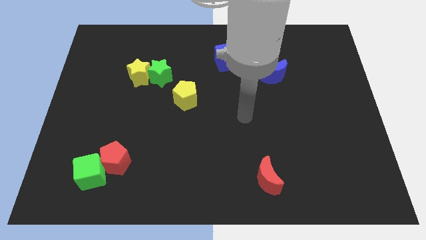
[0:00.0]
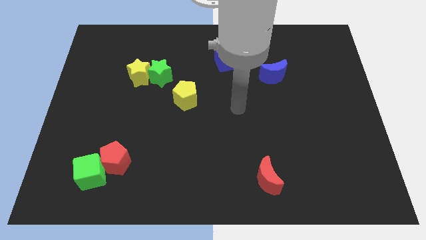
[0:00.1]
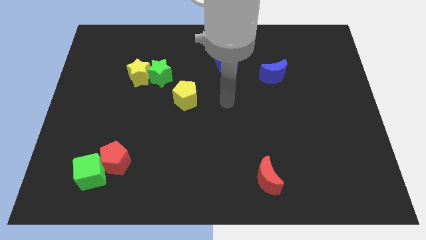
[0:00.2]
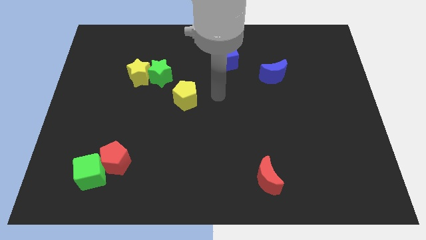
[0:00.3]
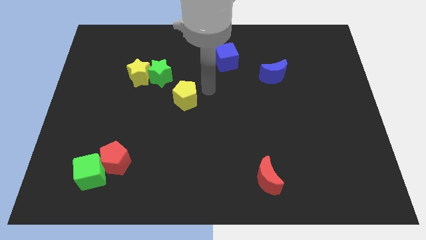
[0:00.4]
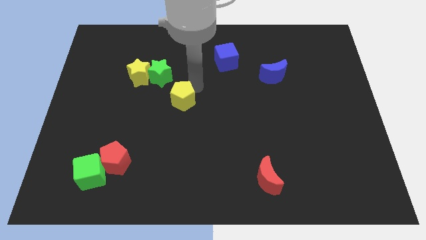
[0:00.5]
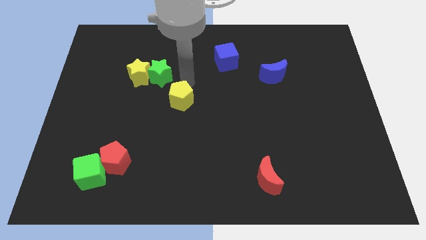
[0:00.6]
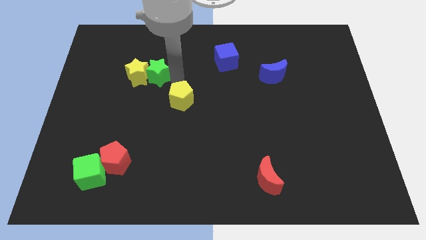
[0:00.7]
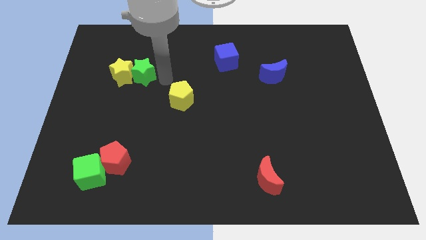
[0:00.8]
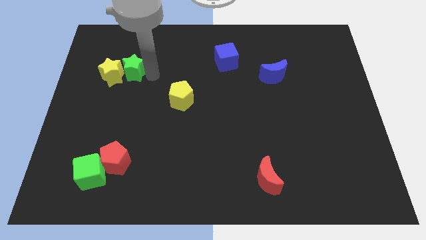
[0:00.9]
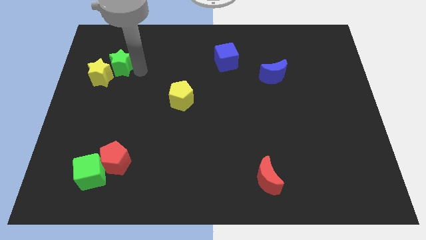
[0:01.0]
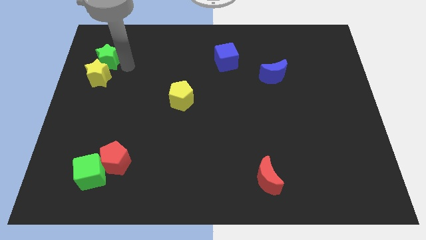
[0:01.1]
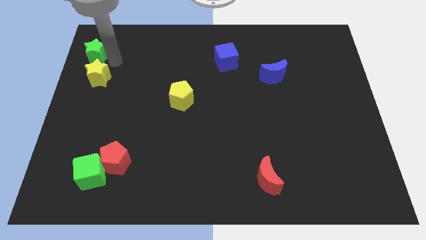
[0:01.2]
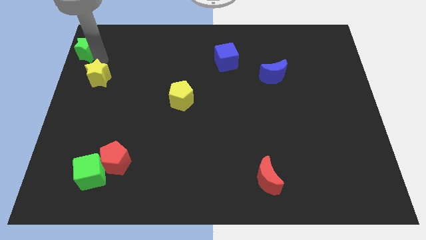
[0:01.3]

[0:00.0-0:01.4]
pull the yellow star apart from the green star

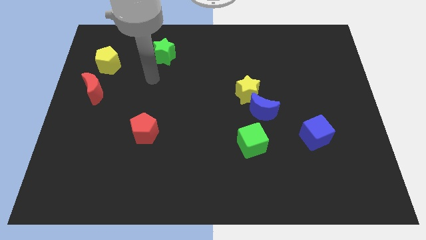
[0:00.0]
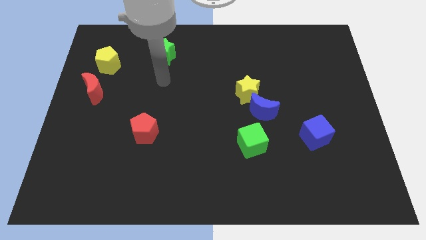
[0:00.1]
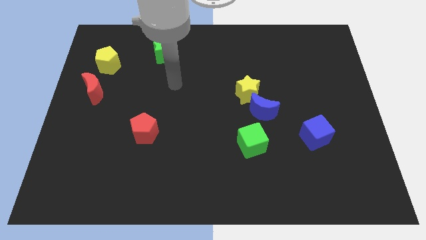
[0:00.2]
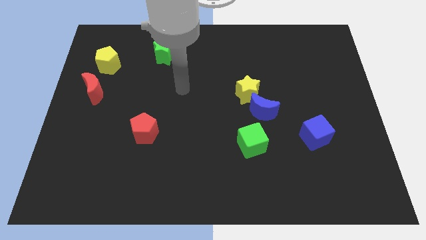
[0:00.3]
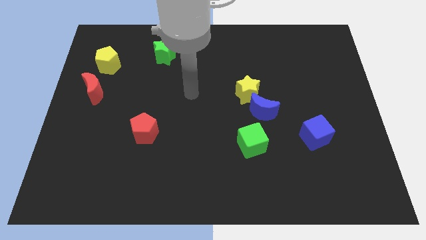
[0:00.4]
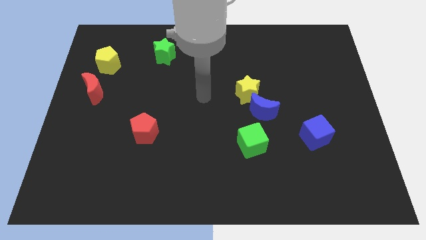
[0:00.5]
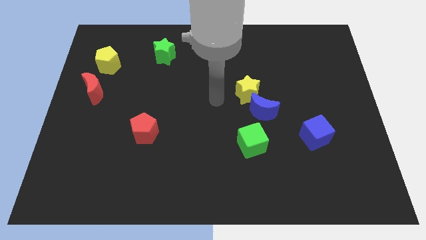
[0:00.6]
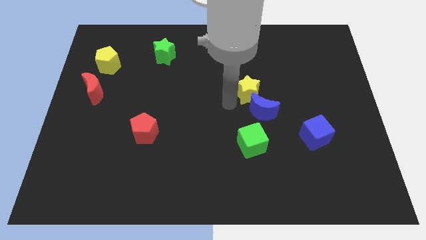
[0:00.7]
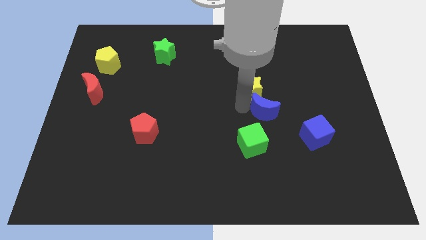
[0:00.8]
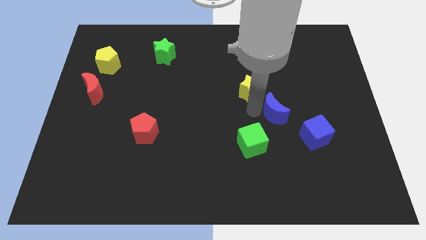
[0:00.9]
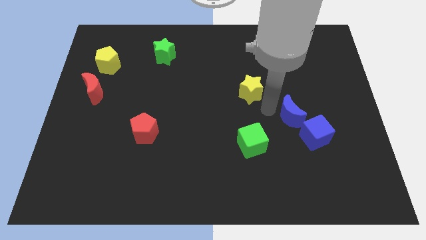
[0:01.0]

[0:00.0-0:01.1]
separate the yellow star from the blue moon

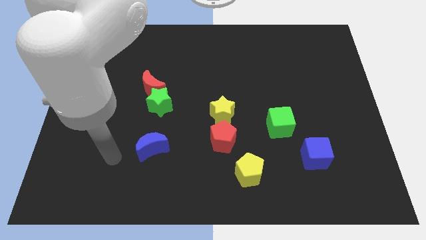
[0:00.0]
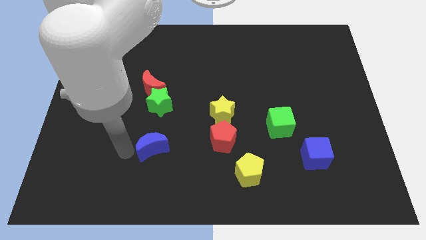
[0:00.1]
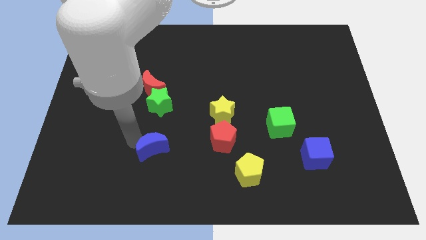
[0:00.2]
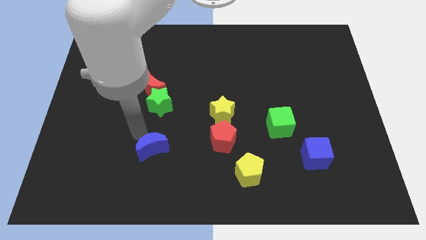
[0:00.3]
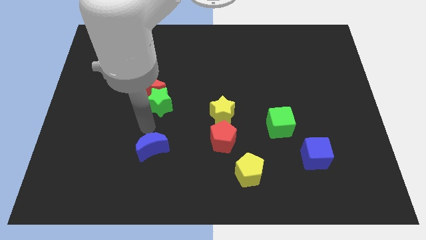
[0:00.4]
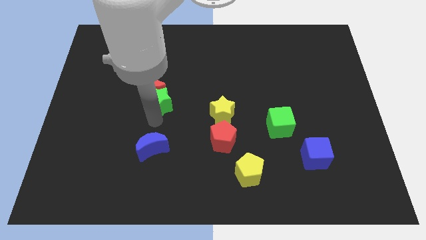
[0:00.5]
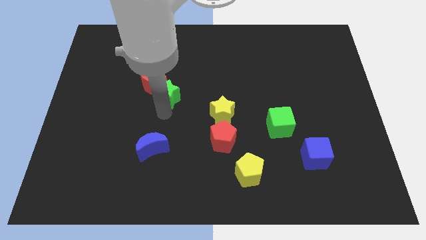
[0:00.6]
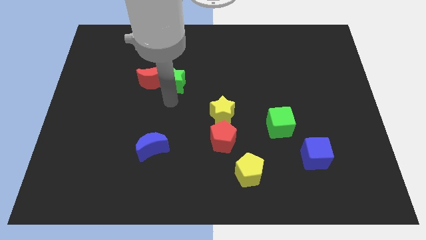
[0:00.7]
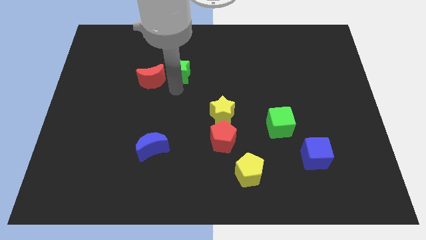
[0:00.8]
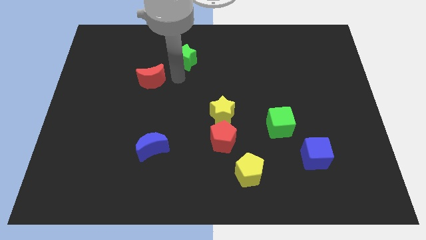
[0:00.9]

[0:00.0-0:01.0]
move the red moon away from the green star

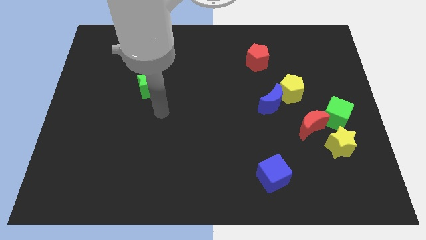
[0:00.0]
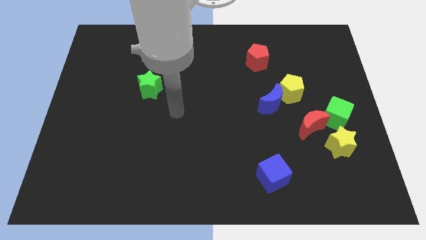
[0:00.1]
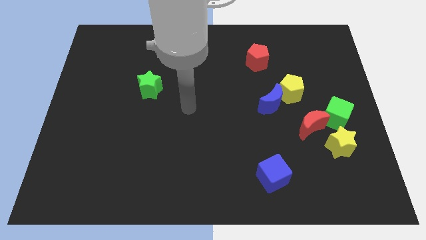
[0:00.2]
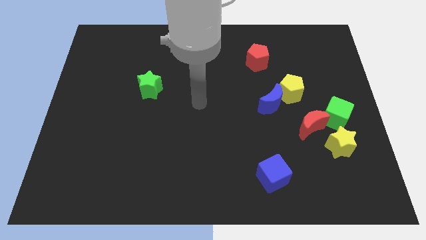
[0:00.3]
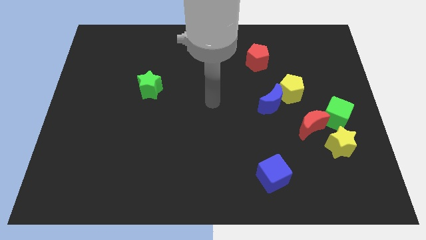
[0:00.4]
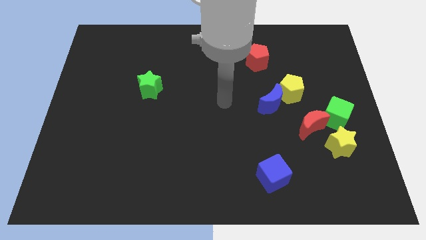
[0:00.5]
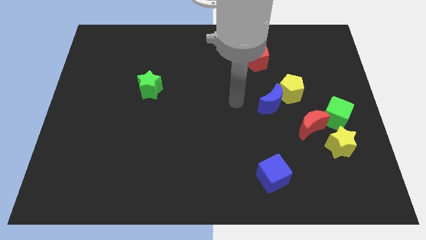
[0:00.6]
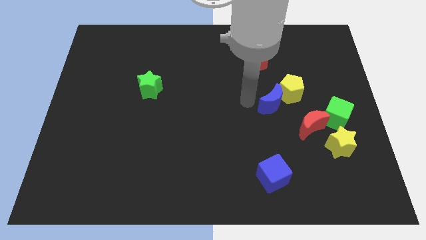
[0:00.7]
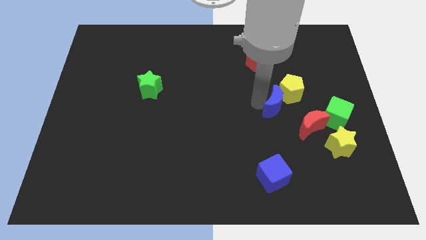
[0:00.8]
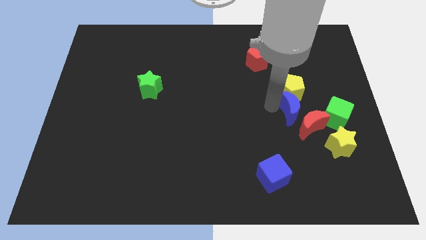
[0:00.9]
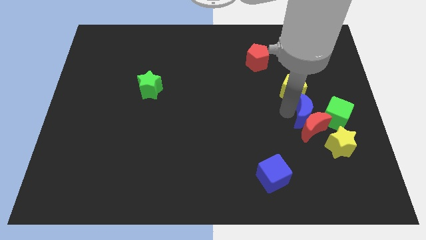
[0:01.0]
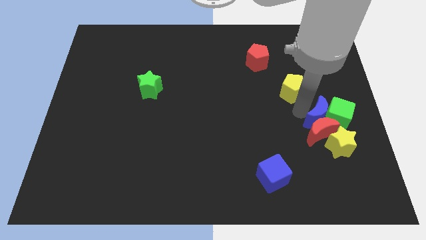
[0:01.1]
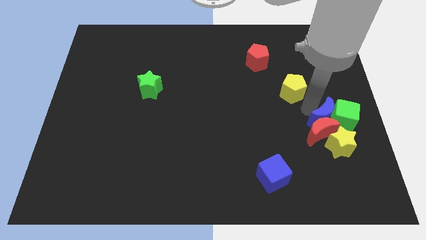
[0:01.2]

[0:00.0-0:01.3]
separate the yellow pentagon from the blue moon

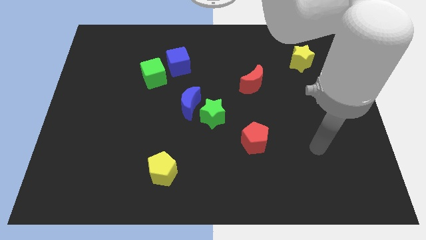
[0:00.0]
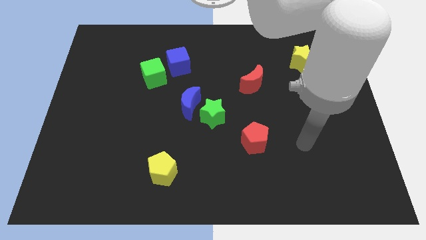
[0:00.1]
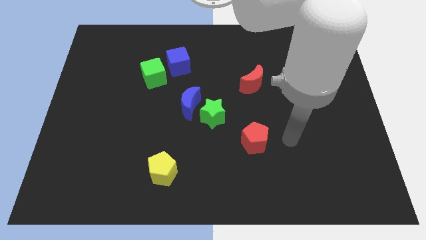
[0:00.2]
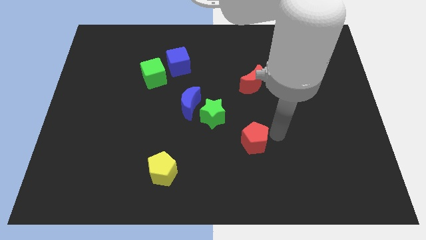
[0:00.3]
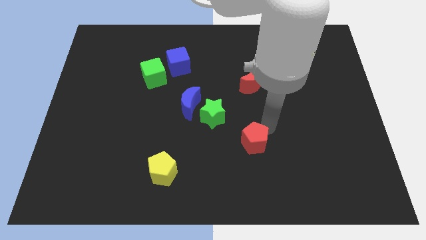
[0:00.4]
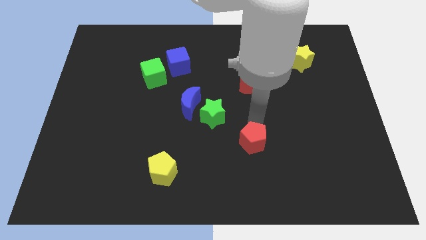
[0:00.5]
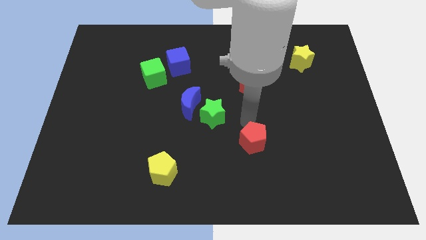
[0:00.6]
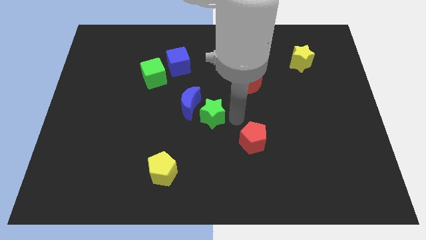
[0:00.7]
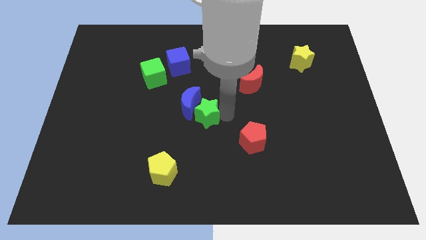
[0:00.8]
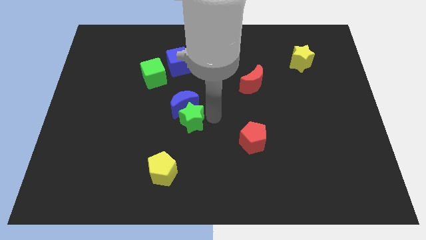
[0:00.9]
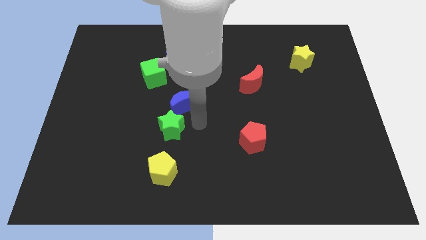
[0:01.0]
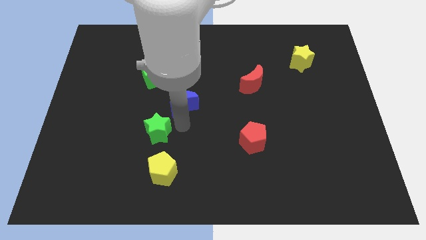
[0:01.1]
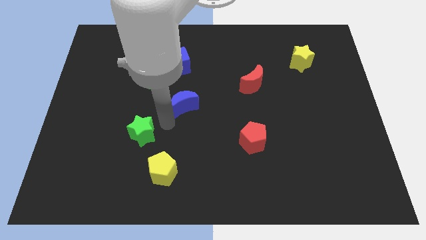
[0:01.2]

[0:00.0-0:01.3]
move the blue moon away from the green star

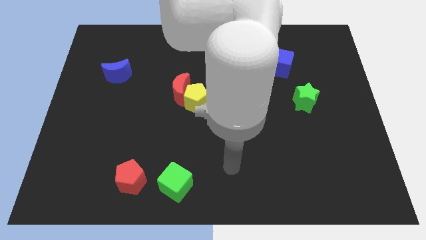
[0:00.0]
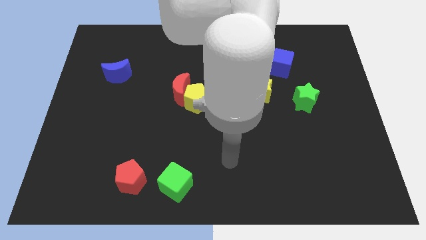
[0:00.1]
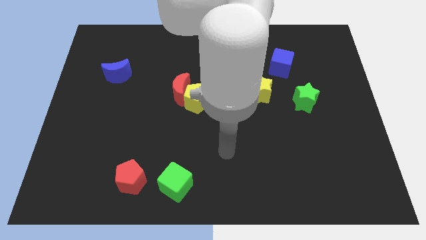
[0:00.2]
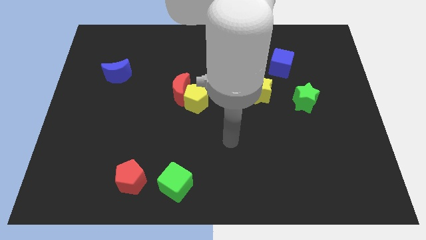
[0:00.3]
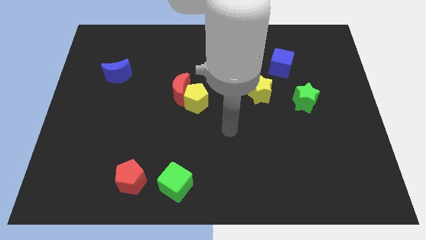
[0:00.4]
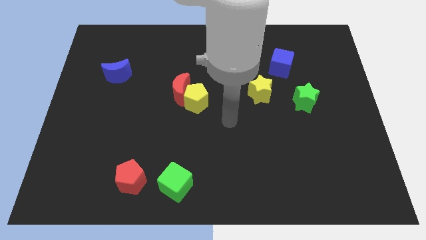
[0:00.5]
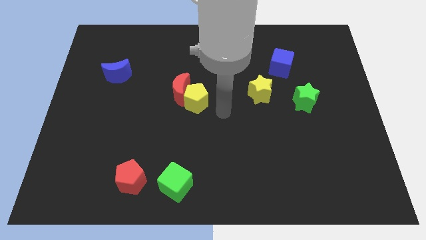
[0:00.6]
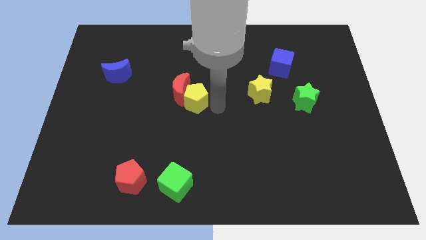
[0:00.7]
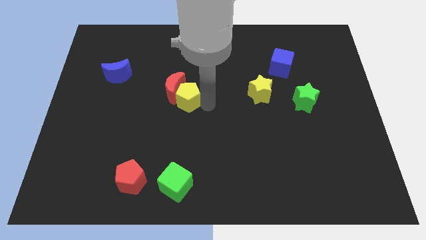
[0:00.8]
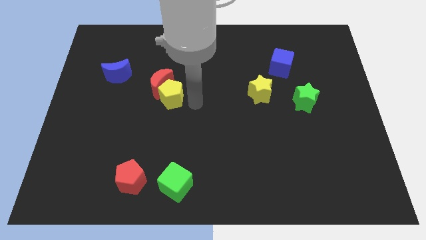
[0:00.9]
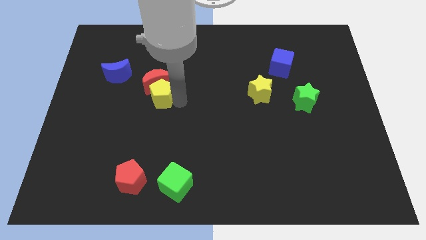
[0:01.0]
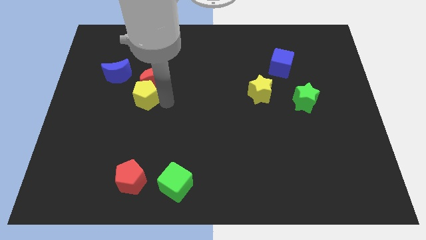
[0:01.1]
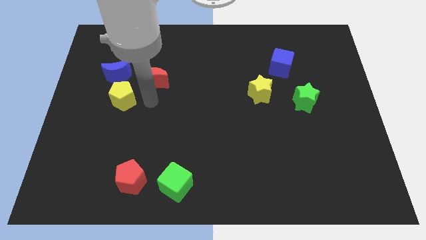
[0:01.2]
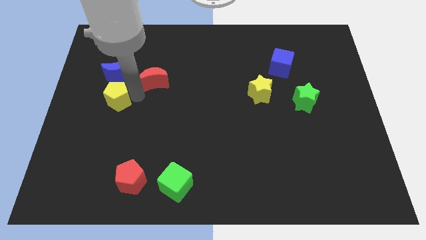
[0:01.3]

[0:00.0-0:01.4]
separate the red moon from the yellow pentagon

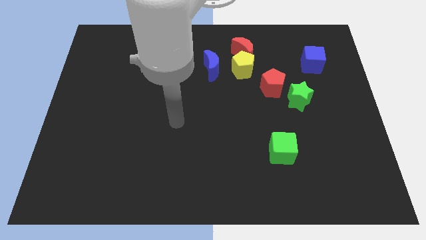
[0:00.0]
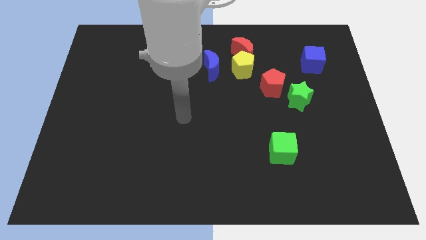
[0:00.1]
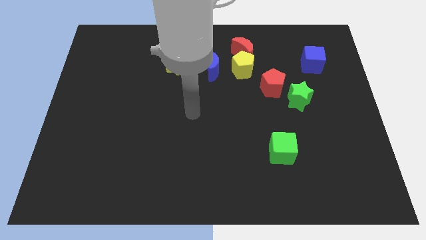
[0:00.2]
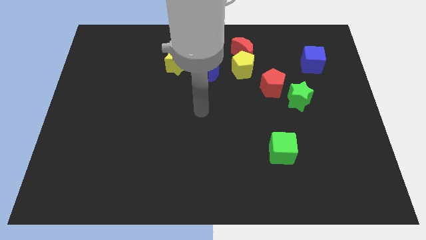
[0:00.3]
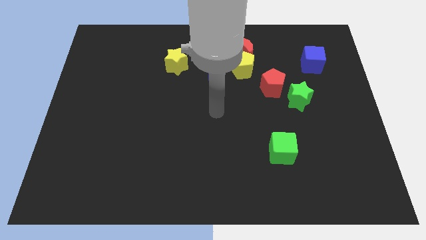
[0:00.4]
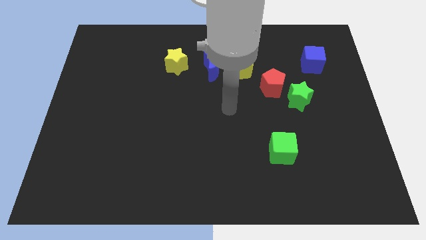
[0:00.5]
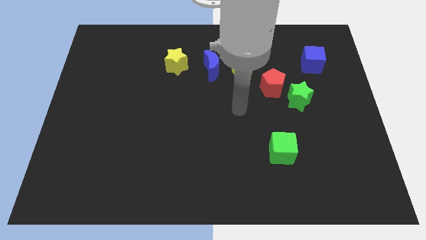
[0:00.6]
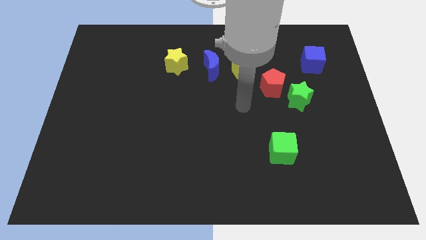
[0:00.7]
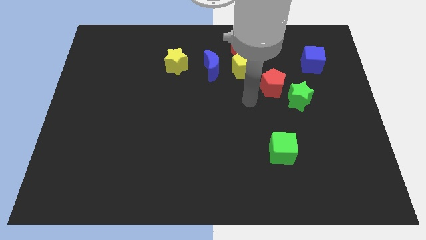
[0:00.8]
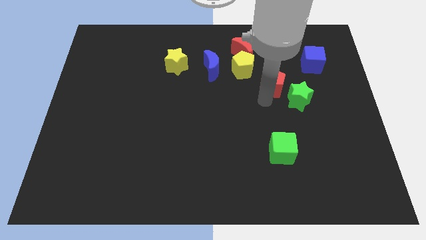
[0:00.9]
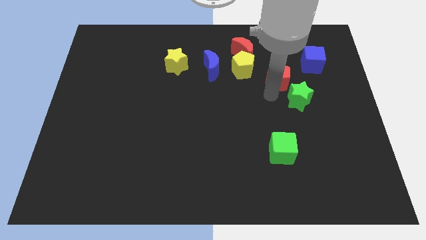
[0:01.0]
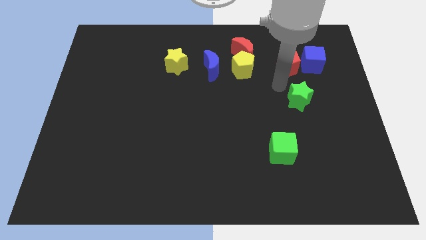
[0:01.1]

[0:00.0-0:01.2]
move the green star away from the red pentagon

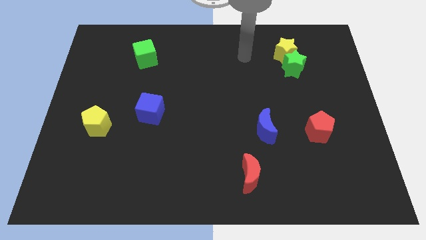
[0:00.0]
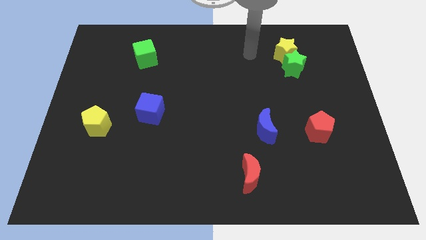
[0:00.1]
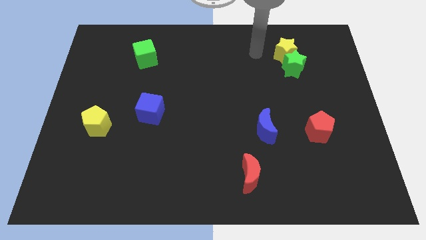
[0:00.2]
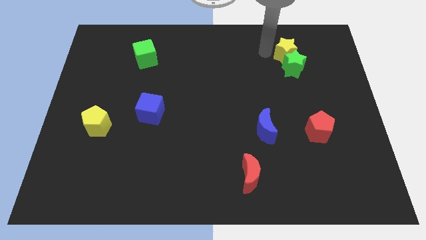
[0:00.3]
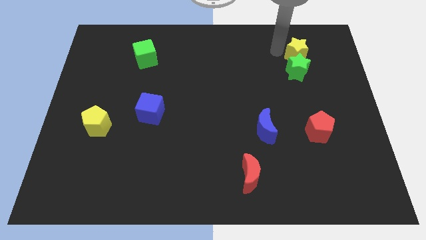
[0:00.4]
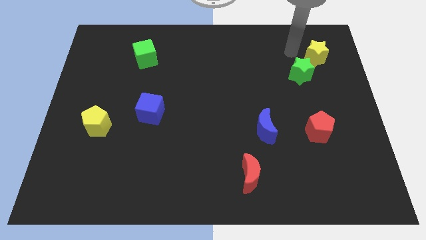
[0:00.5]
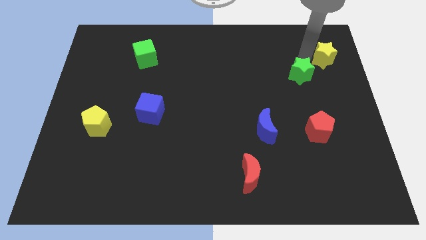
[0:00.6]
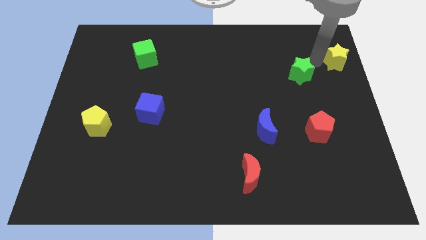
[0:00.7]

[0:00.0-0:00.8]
move the green star away from the yellow star

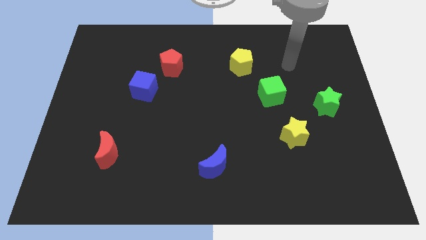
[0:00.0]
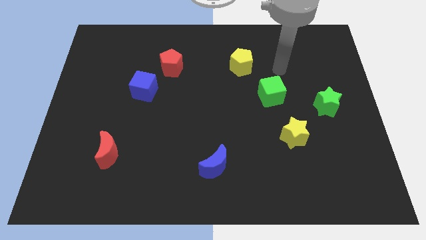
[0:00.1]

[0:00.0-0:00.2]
pull the red pentagon apart from the blue cube
